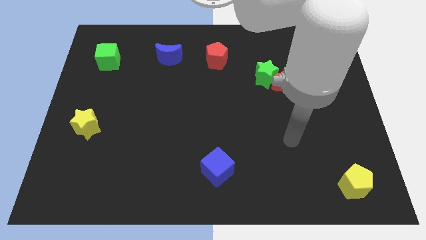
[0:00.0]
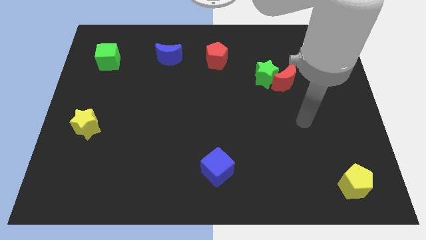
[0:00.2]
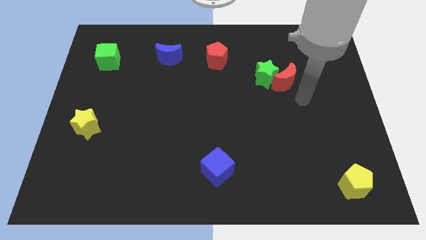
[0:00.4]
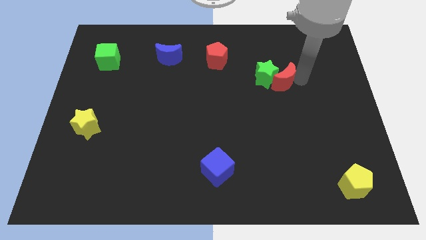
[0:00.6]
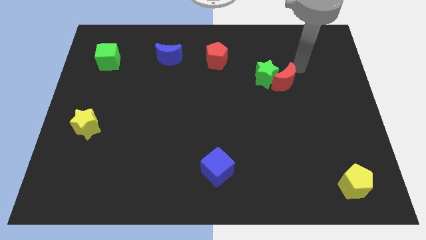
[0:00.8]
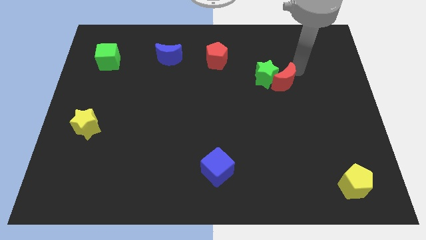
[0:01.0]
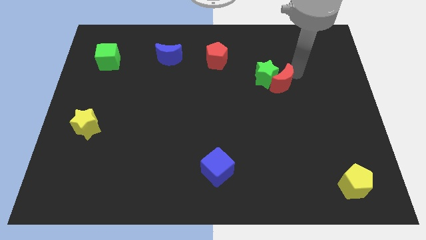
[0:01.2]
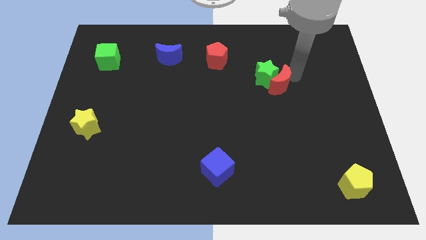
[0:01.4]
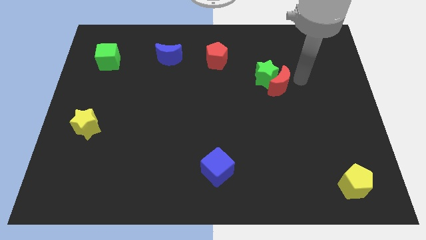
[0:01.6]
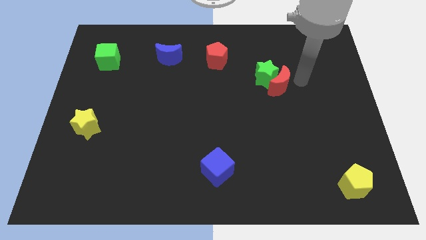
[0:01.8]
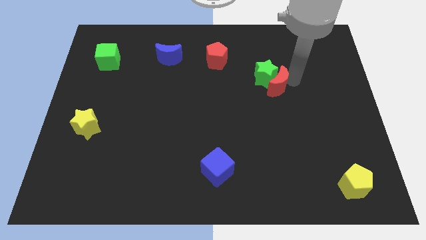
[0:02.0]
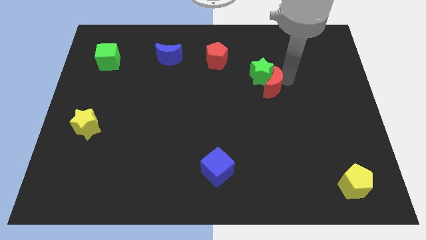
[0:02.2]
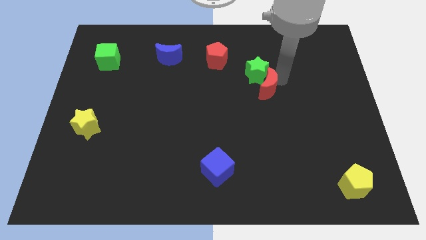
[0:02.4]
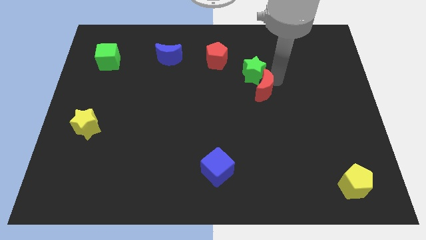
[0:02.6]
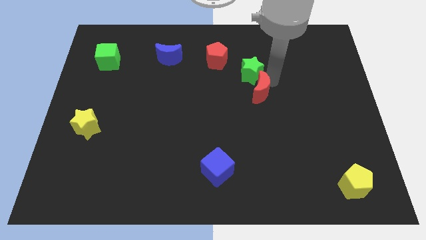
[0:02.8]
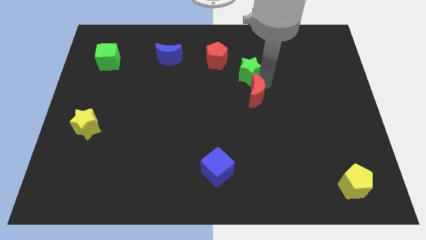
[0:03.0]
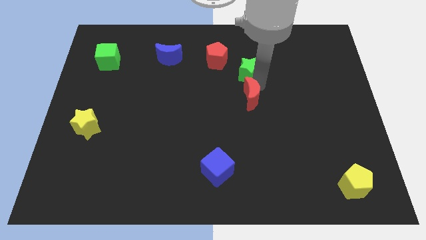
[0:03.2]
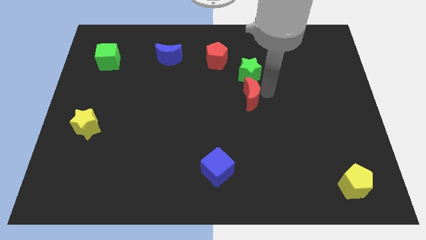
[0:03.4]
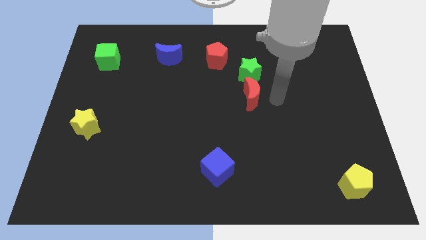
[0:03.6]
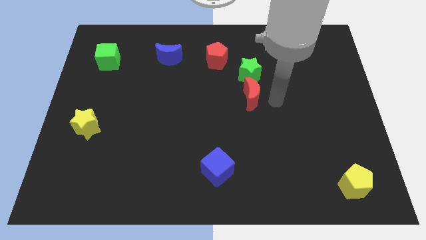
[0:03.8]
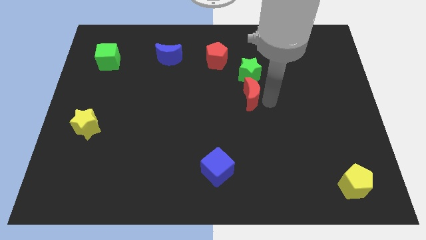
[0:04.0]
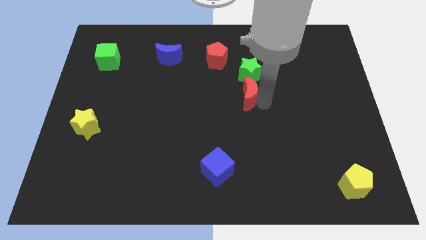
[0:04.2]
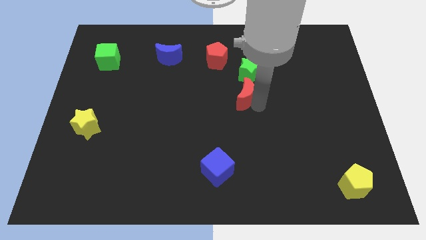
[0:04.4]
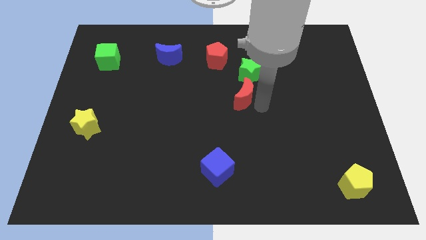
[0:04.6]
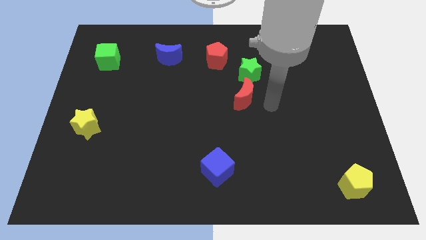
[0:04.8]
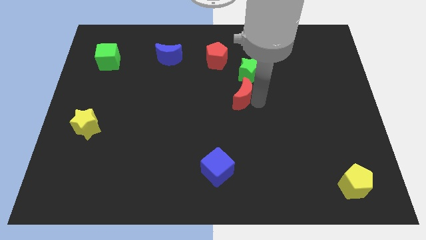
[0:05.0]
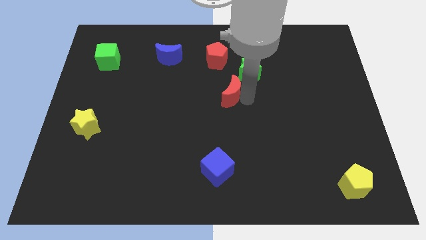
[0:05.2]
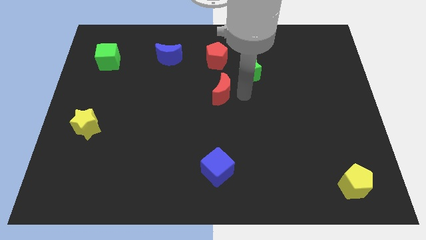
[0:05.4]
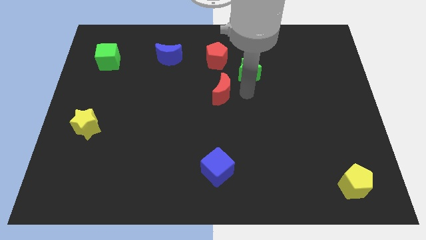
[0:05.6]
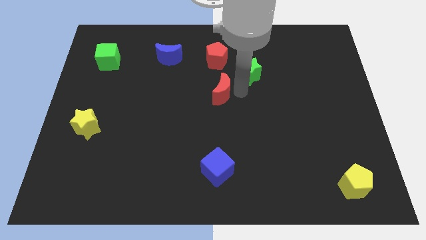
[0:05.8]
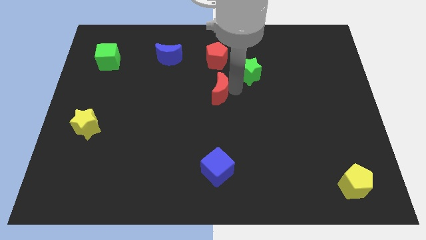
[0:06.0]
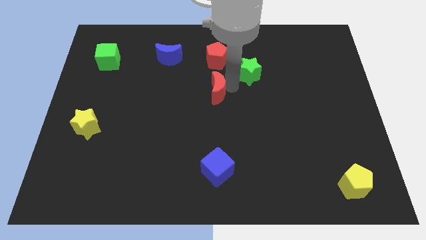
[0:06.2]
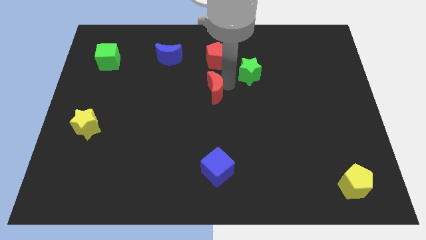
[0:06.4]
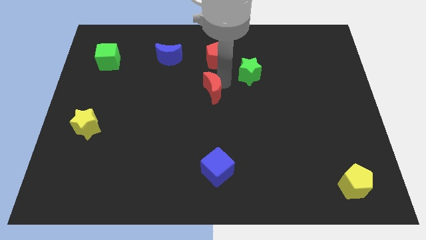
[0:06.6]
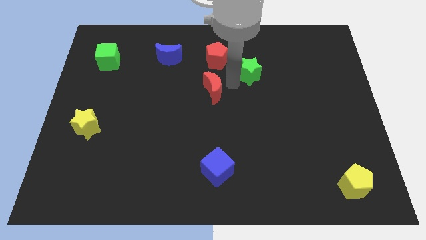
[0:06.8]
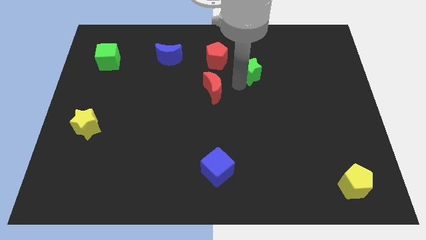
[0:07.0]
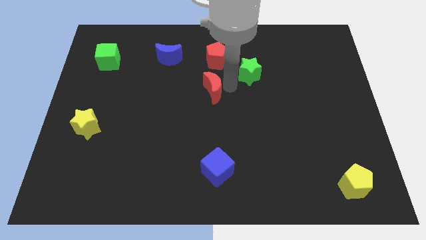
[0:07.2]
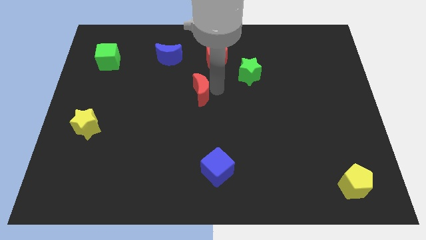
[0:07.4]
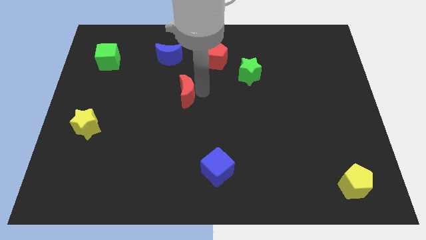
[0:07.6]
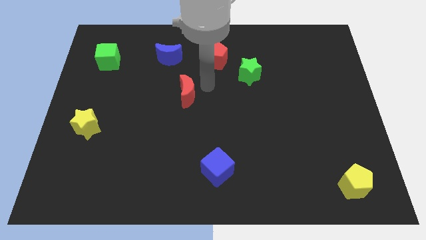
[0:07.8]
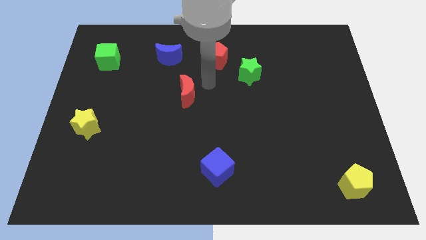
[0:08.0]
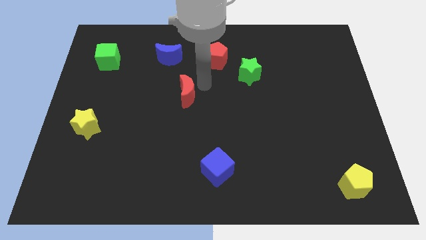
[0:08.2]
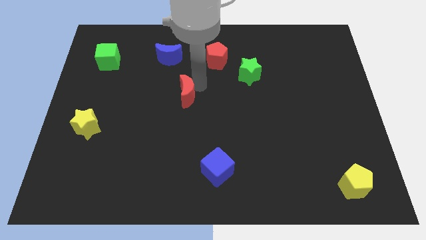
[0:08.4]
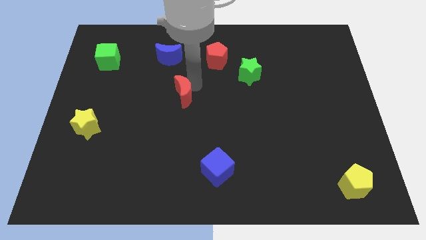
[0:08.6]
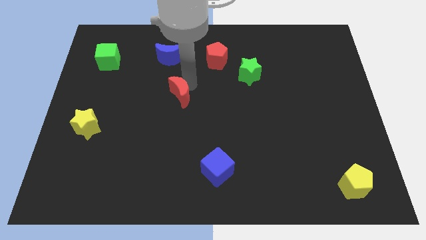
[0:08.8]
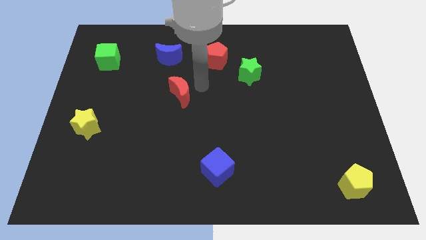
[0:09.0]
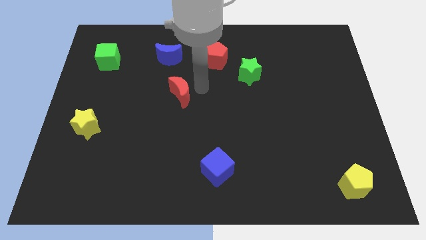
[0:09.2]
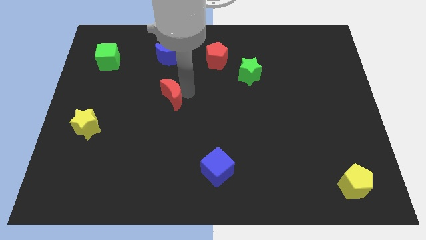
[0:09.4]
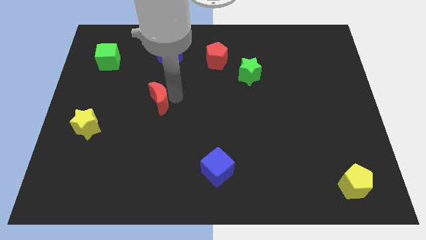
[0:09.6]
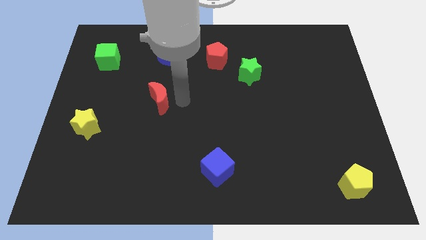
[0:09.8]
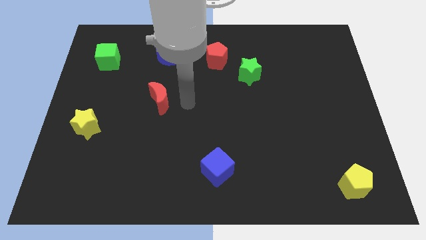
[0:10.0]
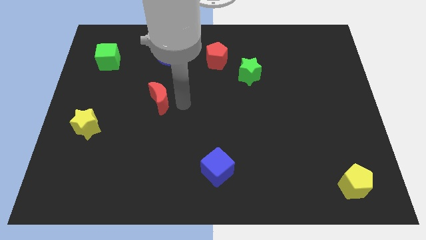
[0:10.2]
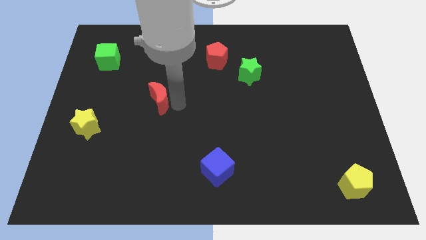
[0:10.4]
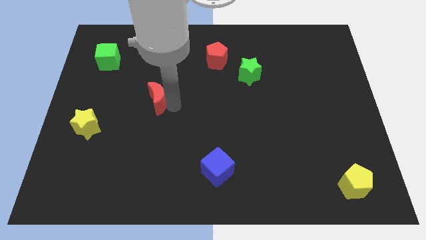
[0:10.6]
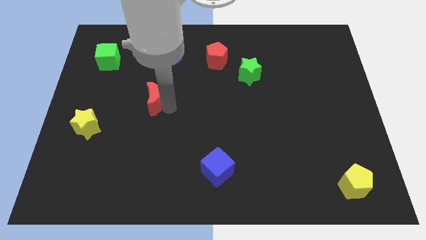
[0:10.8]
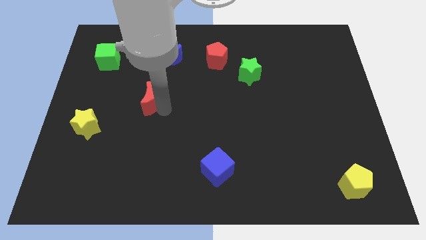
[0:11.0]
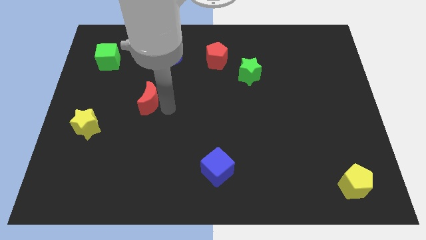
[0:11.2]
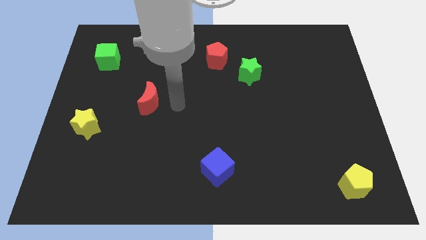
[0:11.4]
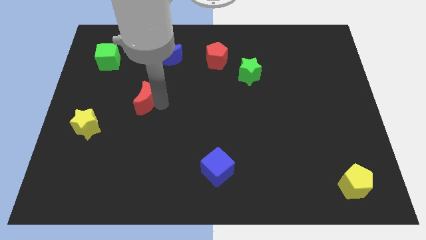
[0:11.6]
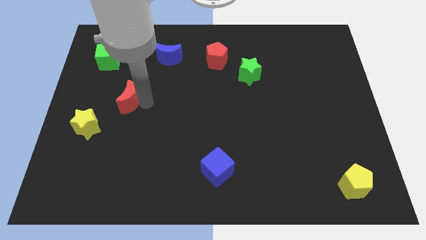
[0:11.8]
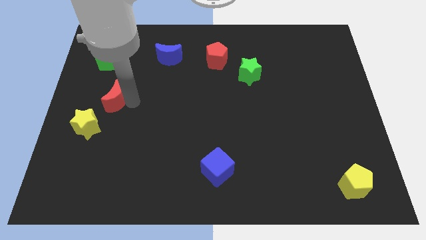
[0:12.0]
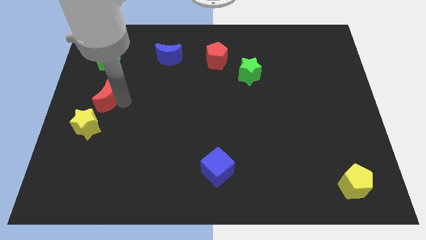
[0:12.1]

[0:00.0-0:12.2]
slide the red moon to the left side of the board
